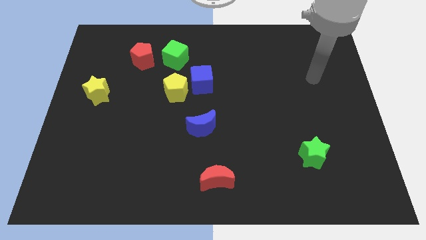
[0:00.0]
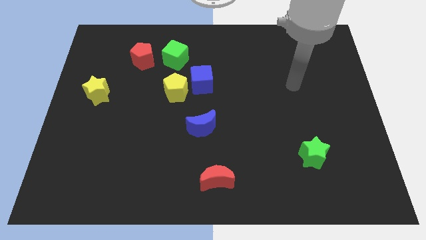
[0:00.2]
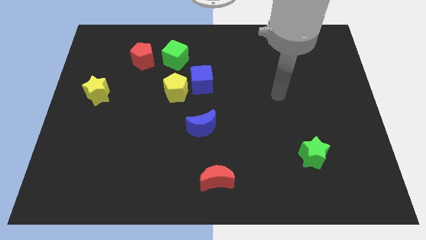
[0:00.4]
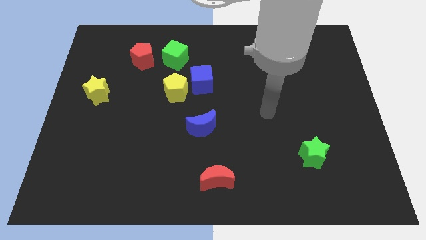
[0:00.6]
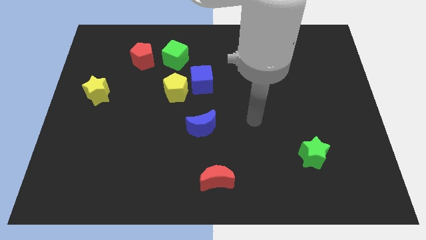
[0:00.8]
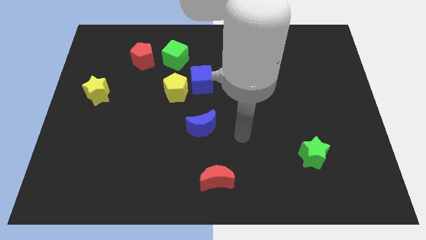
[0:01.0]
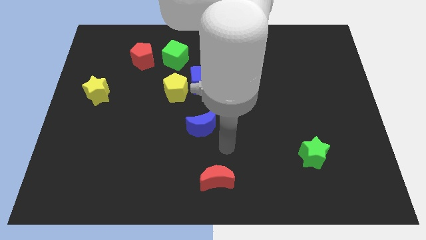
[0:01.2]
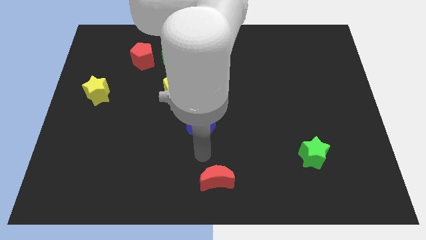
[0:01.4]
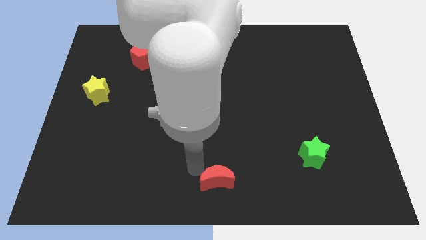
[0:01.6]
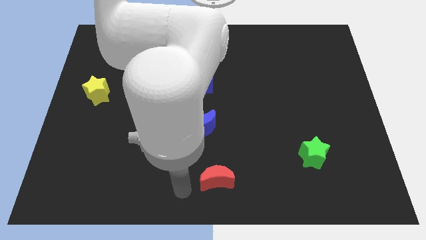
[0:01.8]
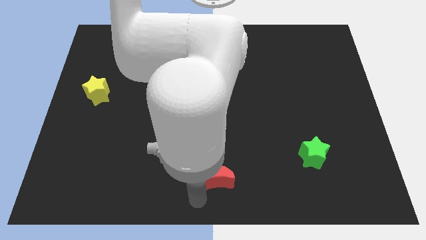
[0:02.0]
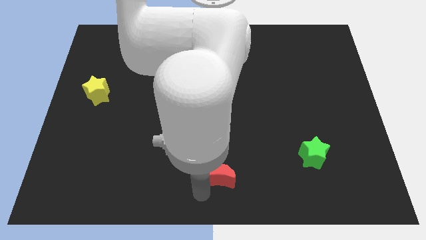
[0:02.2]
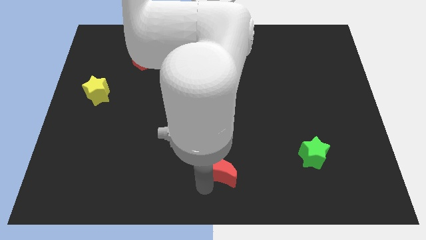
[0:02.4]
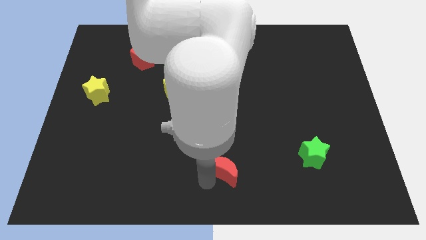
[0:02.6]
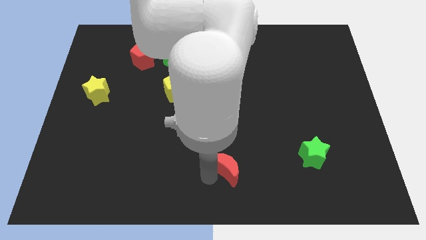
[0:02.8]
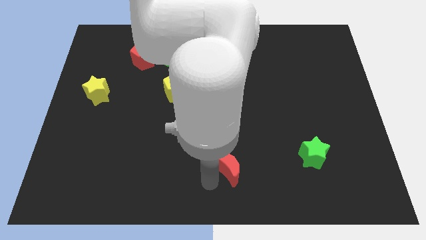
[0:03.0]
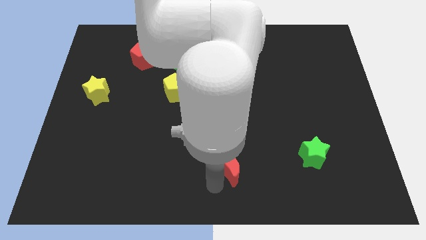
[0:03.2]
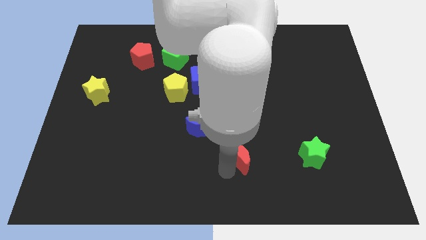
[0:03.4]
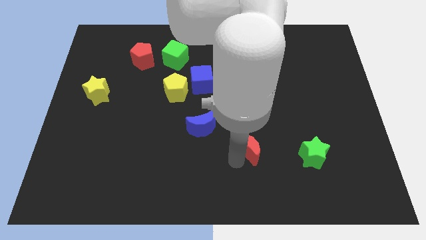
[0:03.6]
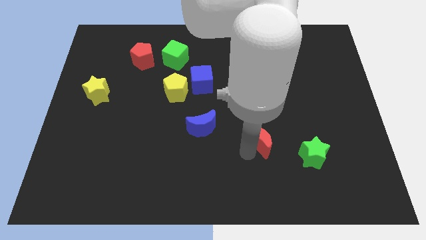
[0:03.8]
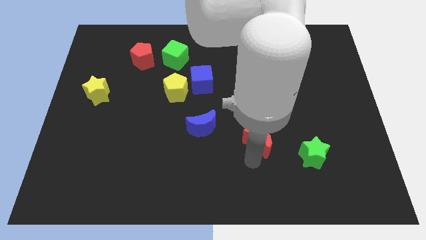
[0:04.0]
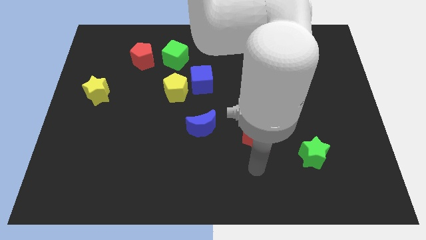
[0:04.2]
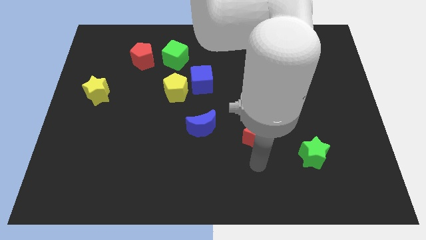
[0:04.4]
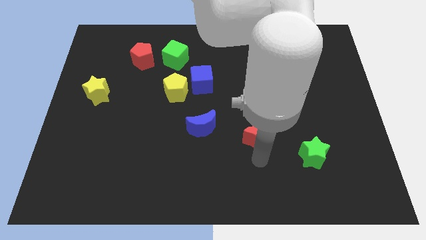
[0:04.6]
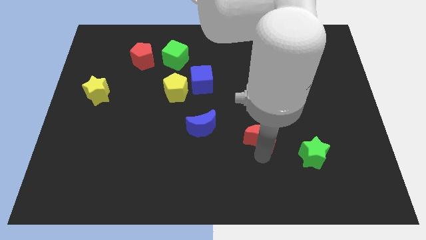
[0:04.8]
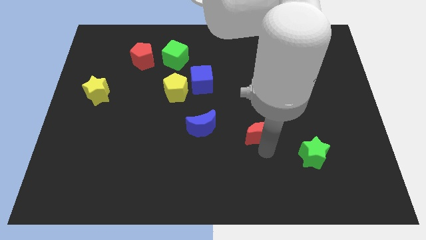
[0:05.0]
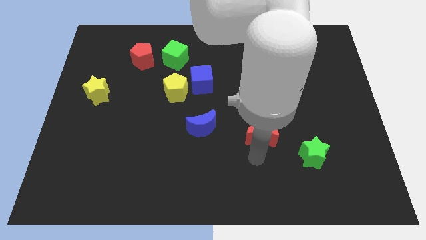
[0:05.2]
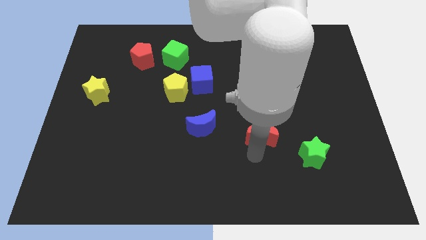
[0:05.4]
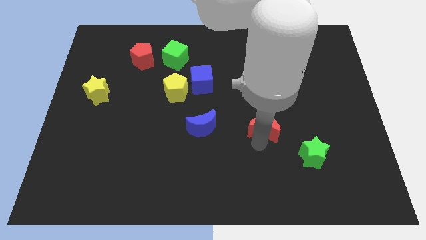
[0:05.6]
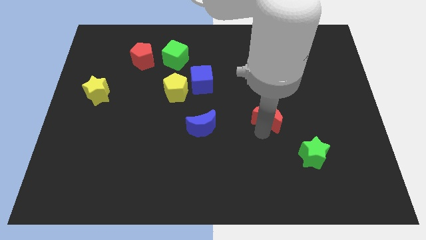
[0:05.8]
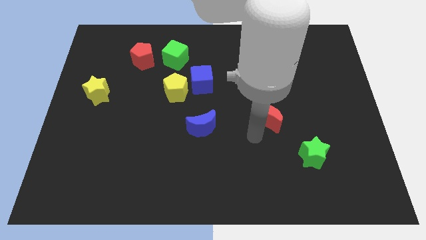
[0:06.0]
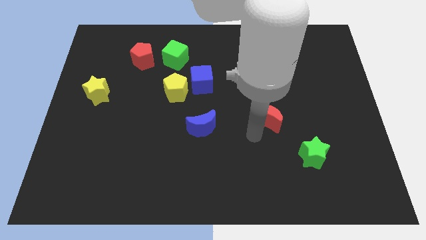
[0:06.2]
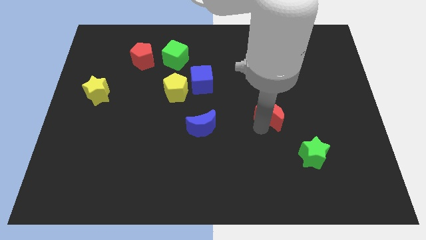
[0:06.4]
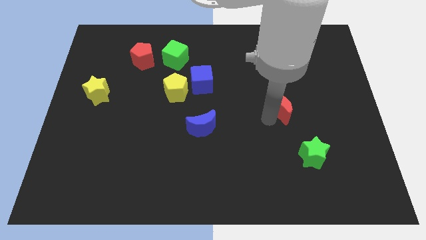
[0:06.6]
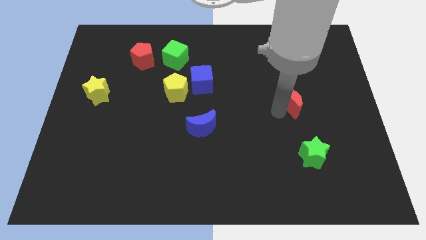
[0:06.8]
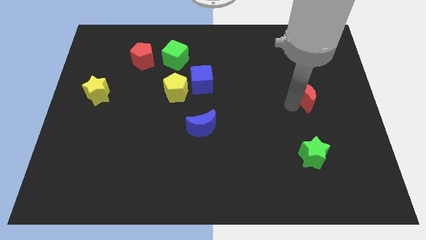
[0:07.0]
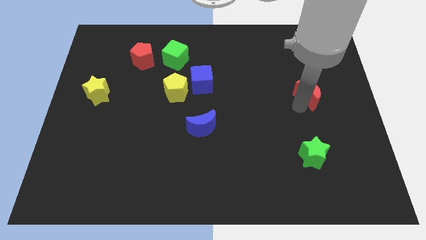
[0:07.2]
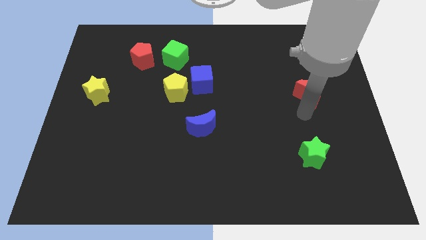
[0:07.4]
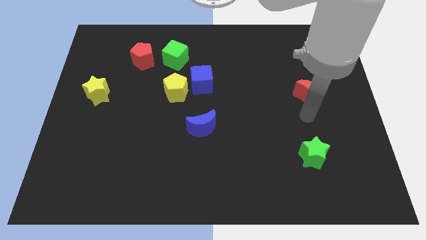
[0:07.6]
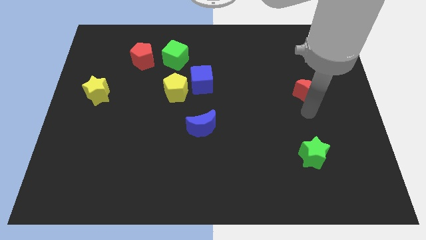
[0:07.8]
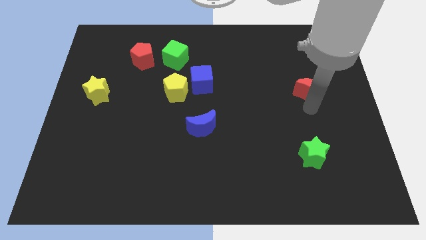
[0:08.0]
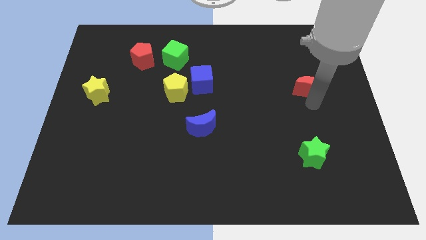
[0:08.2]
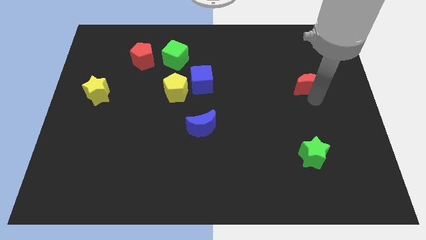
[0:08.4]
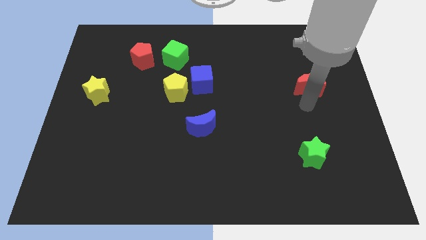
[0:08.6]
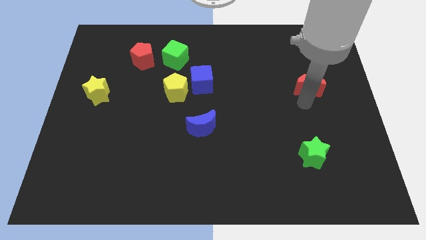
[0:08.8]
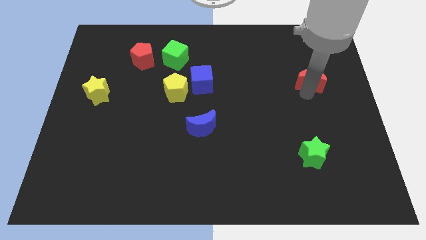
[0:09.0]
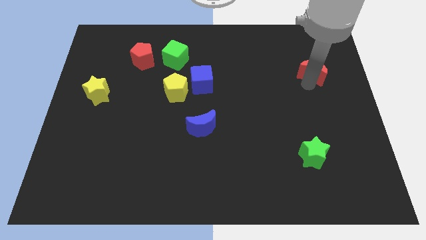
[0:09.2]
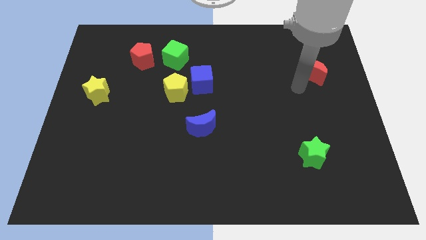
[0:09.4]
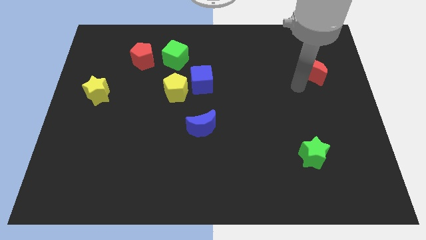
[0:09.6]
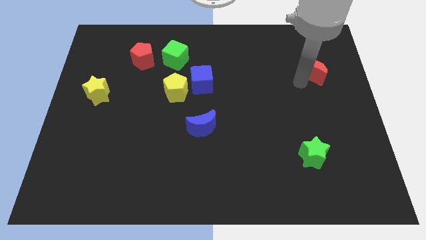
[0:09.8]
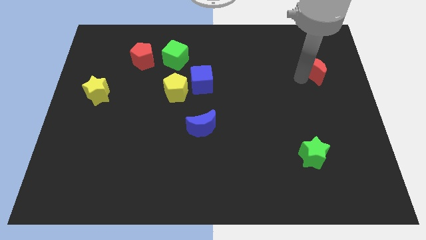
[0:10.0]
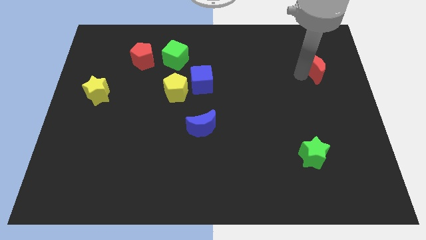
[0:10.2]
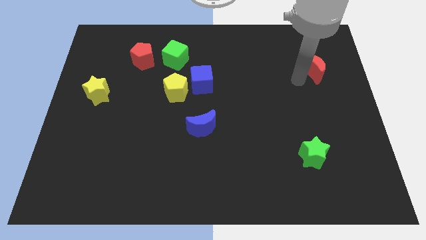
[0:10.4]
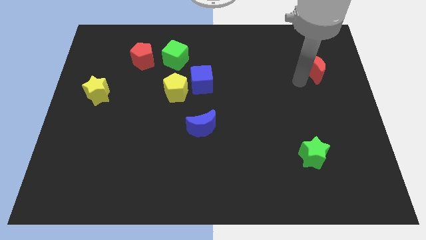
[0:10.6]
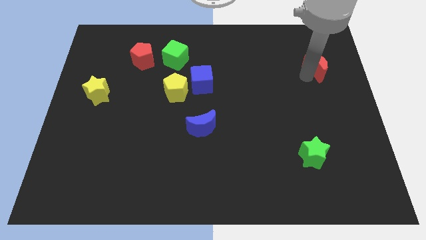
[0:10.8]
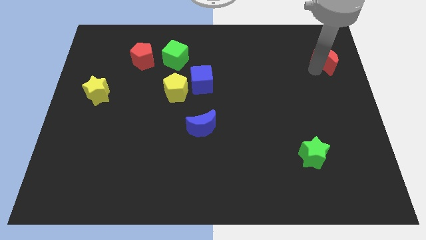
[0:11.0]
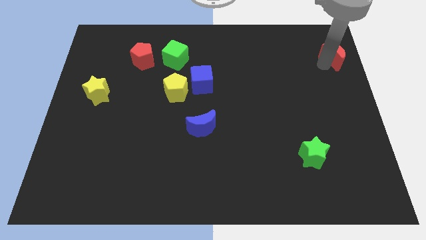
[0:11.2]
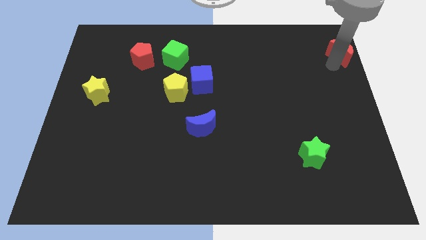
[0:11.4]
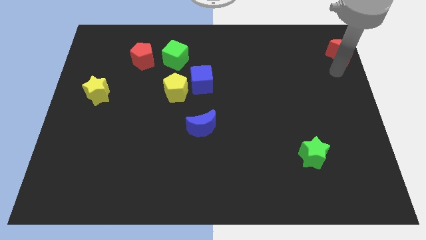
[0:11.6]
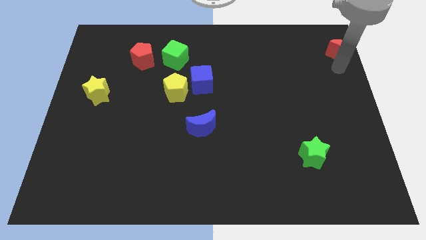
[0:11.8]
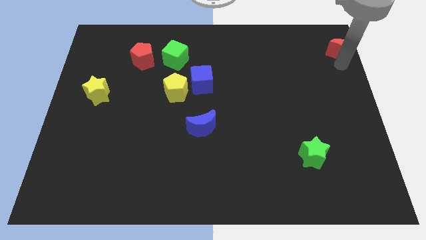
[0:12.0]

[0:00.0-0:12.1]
put the red moon to the top right corner
